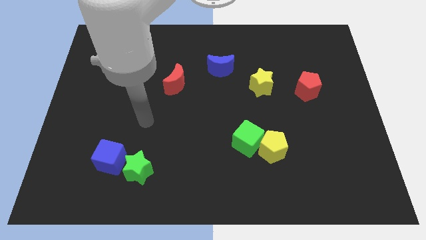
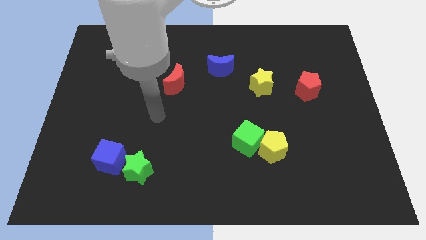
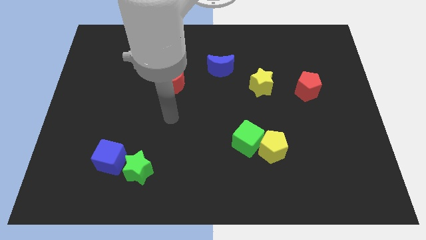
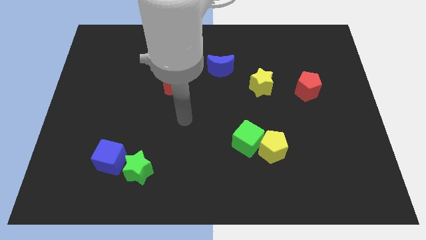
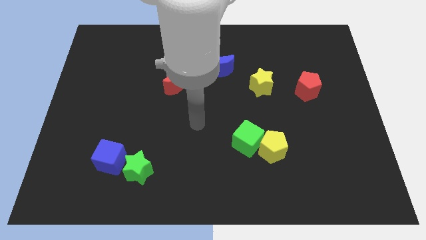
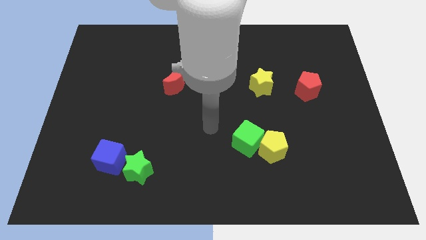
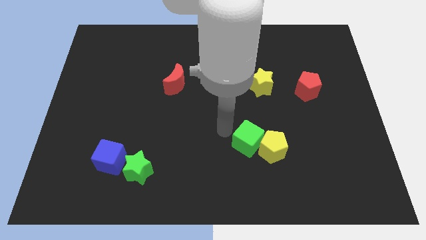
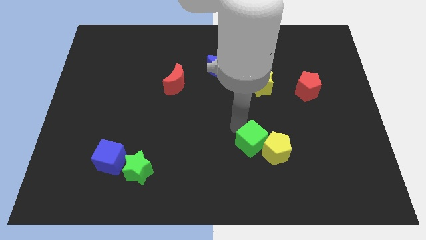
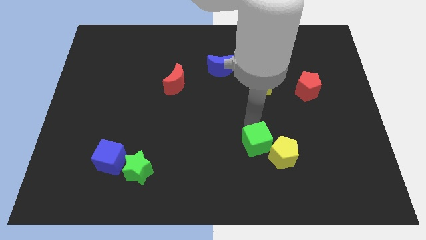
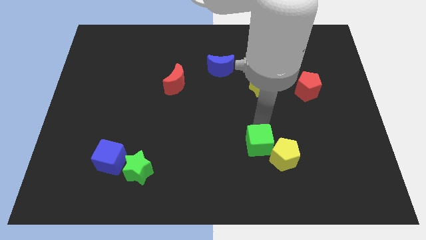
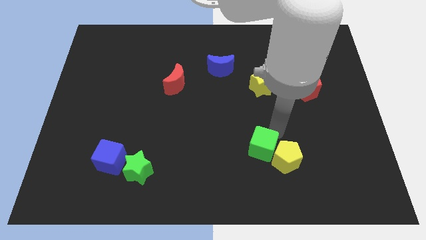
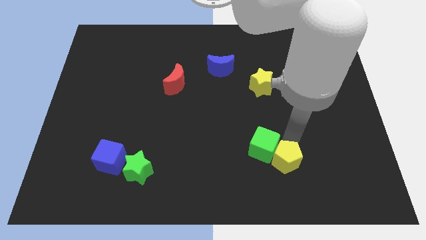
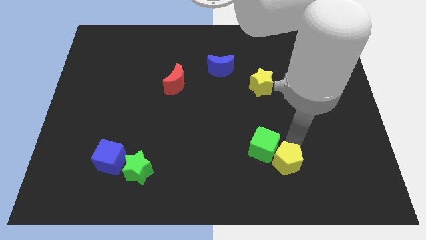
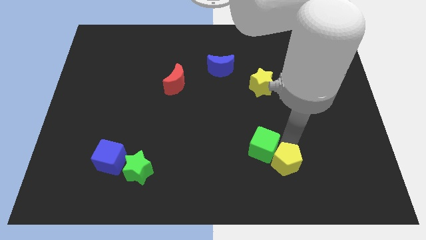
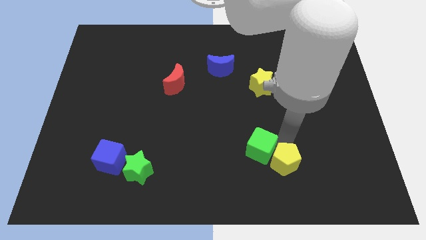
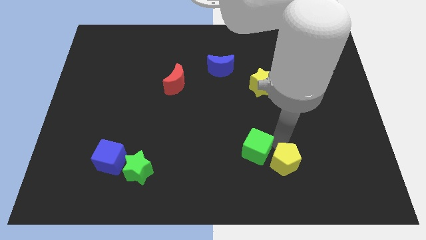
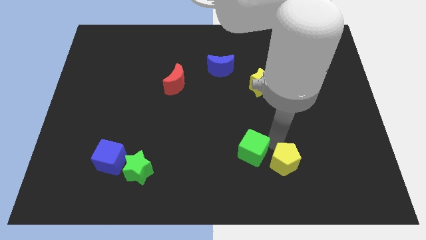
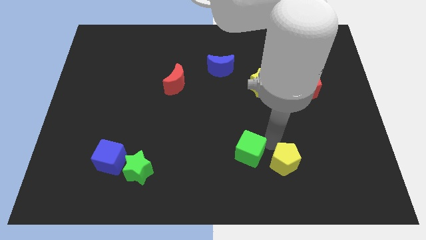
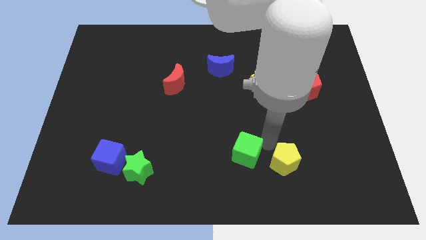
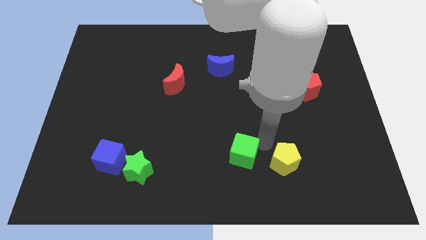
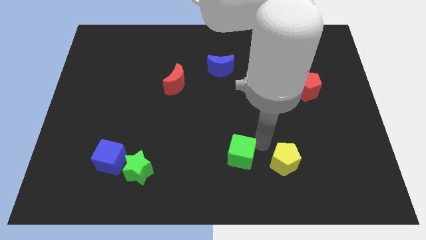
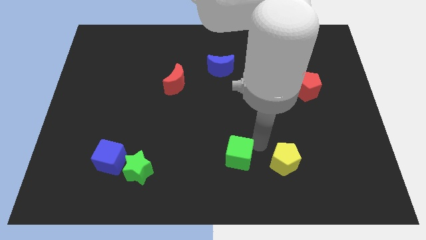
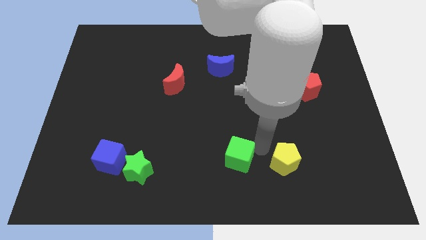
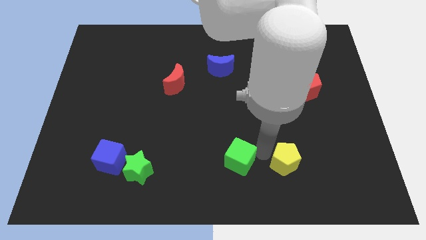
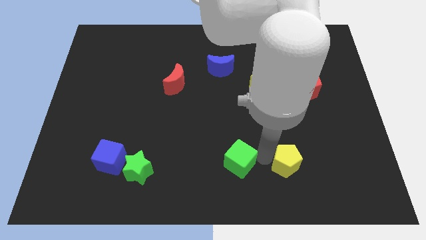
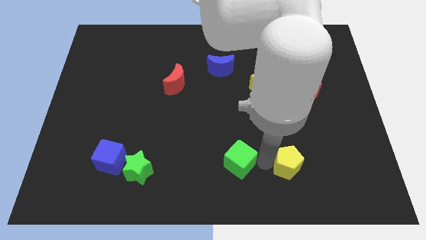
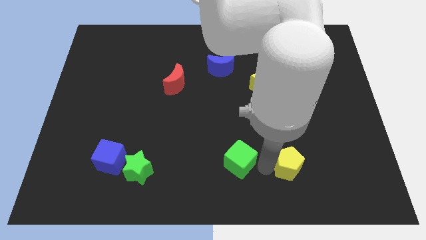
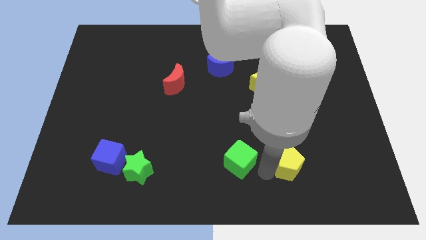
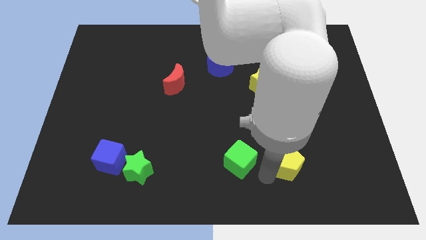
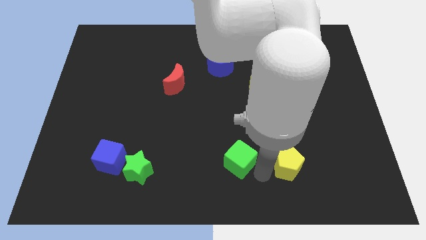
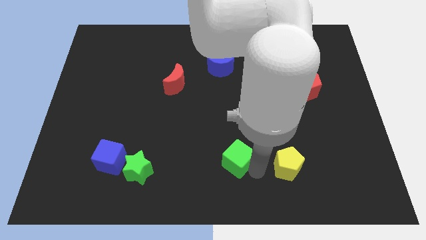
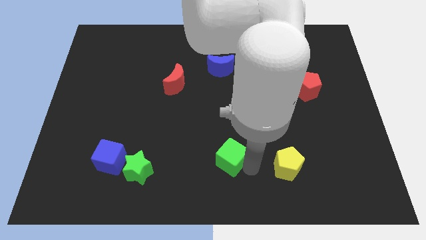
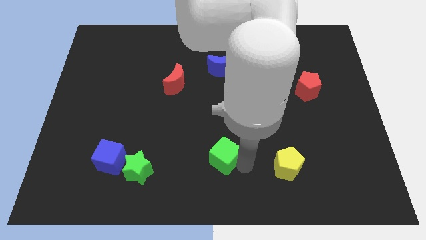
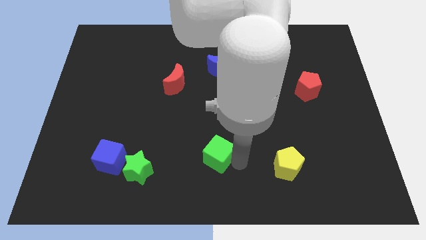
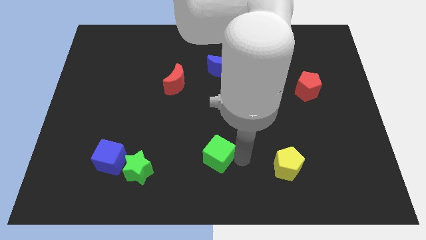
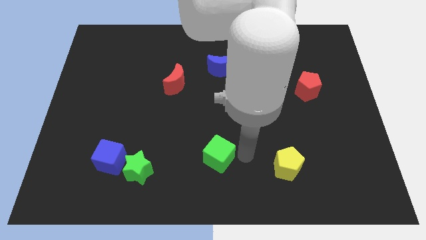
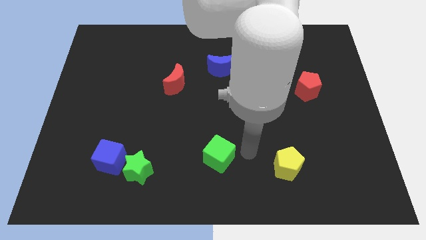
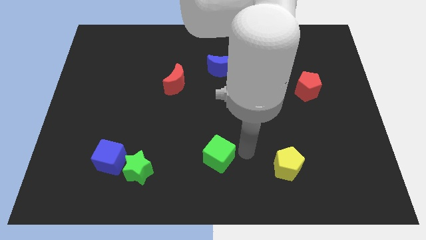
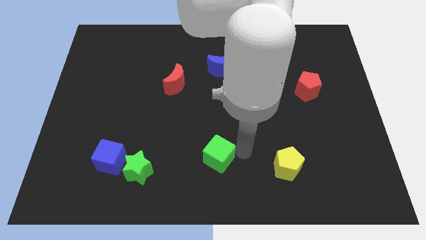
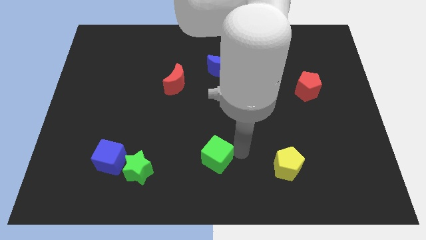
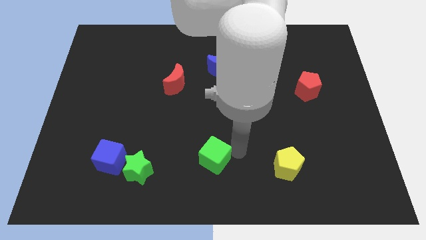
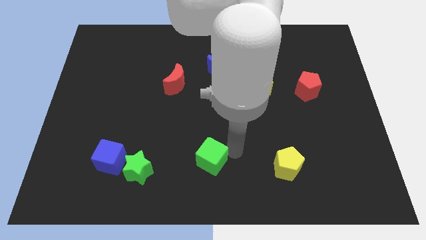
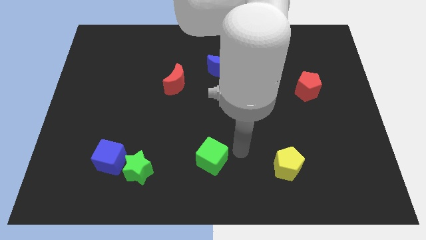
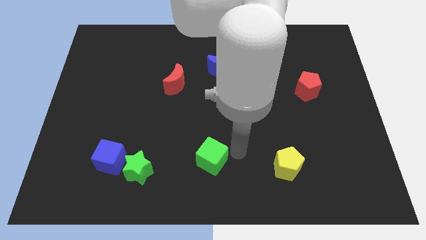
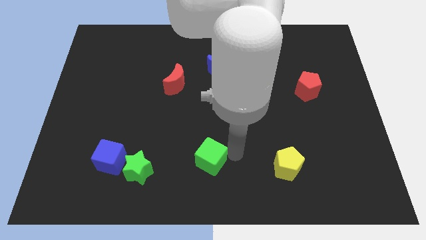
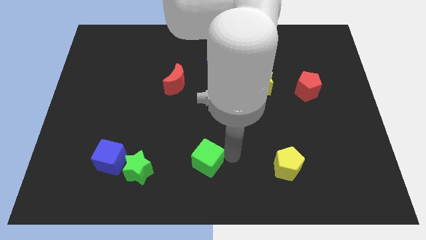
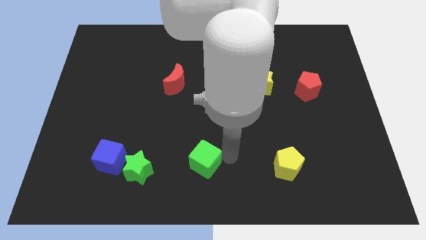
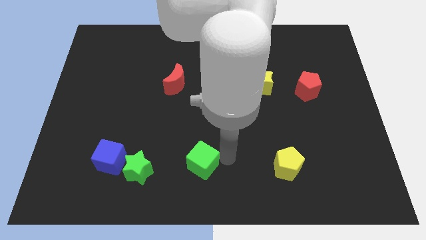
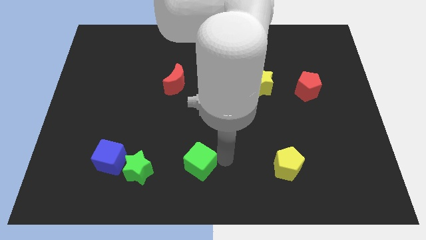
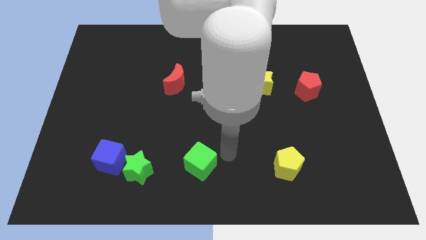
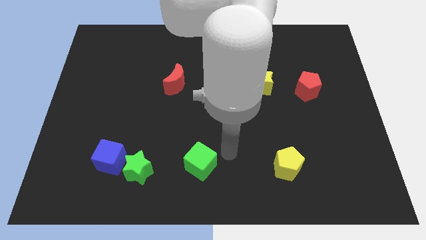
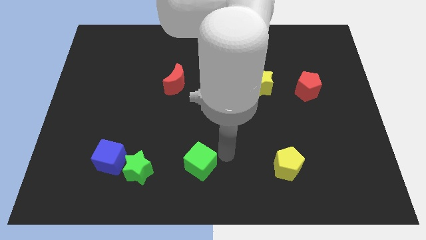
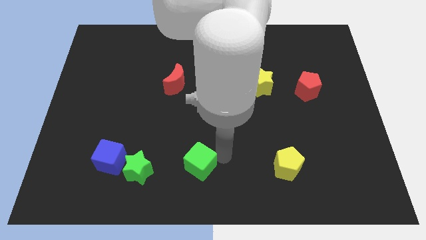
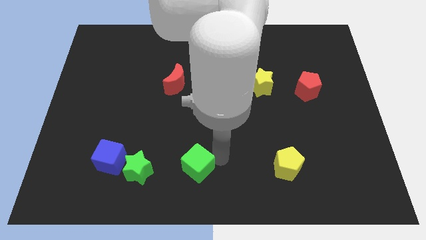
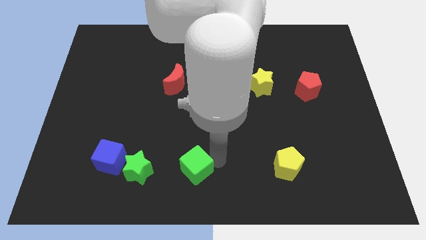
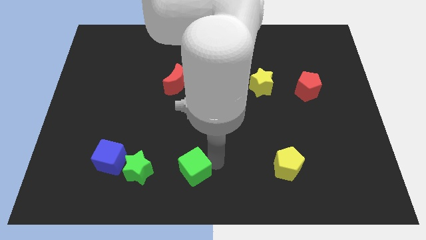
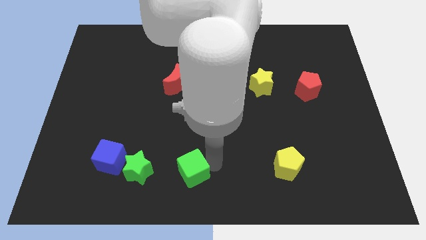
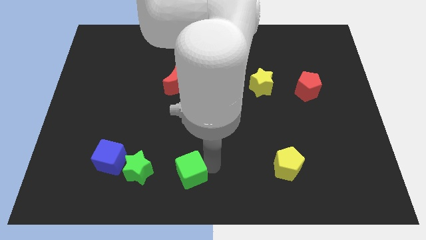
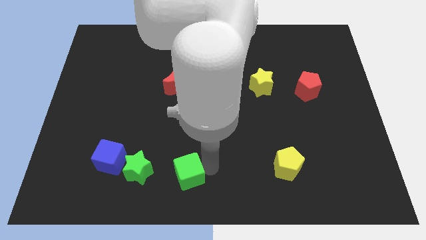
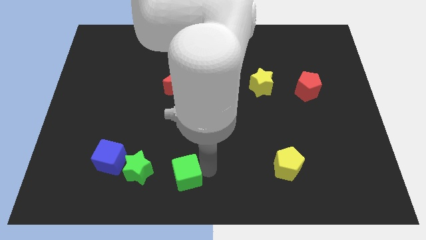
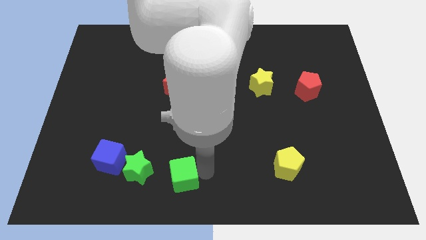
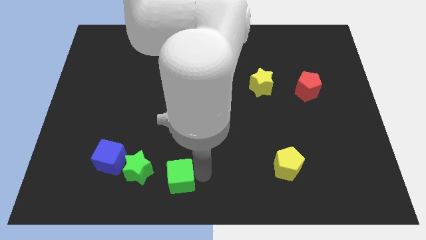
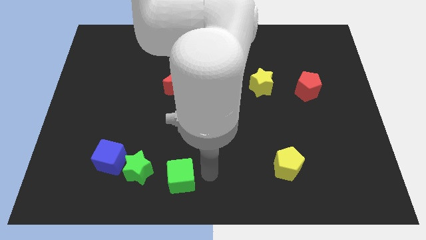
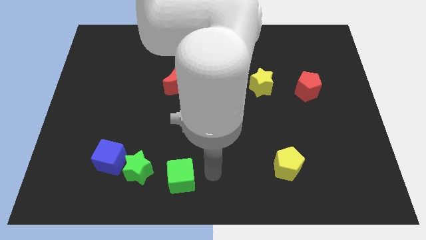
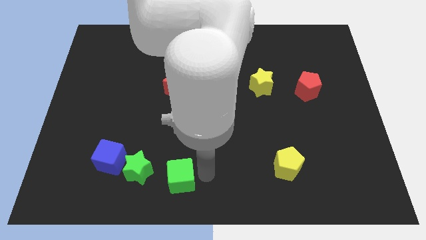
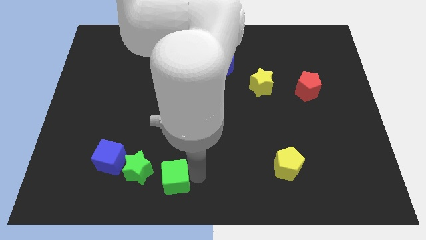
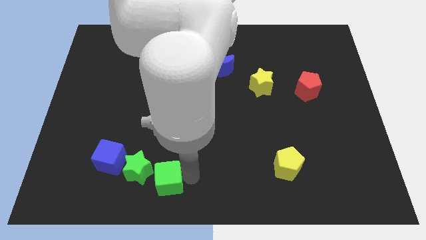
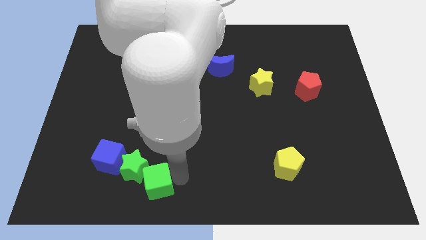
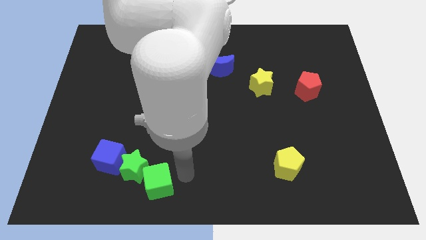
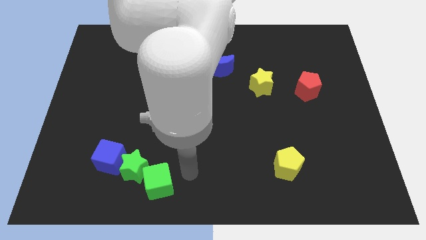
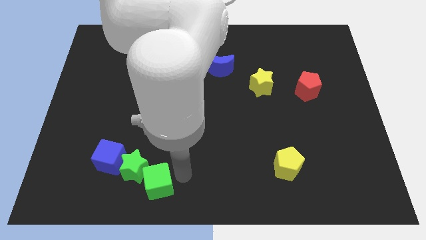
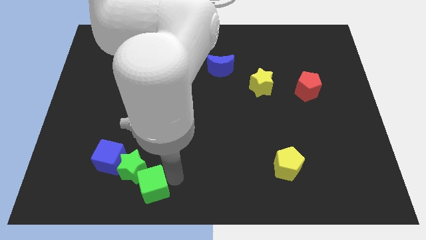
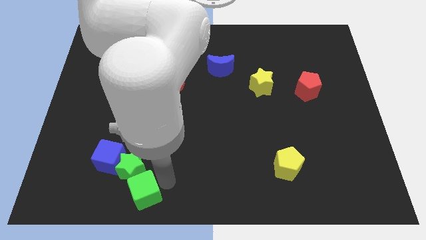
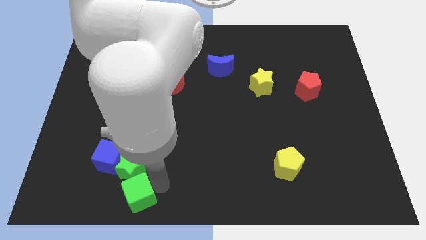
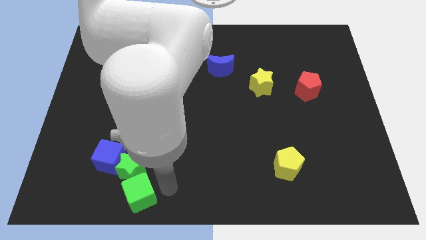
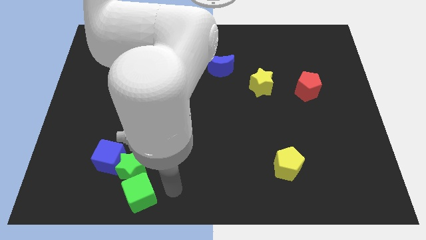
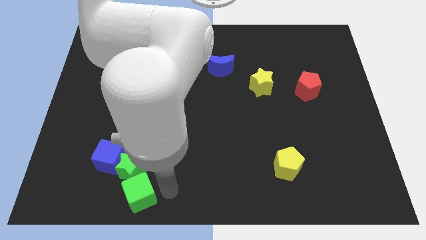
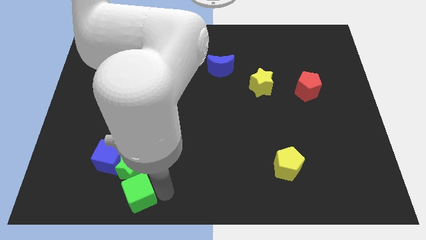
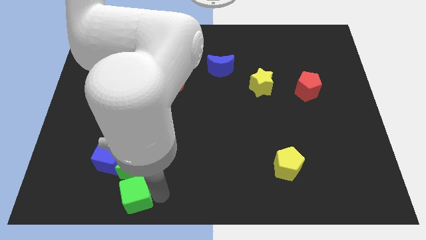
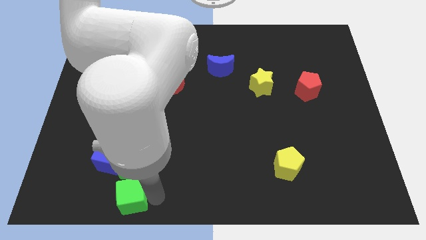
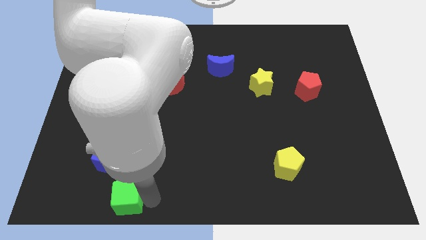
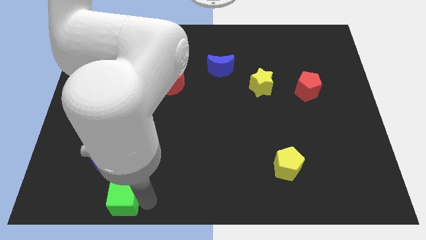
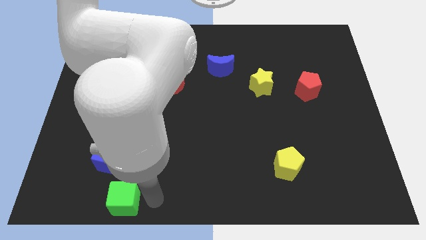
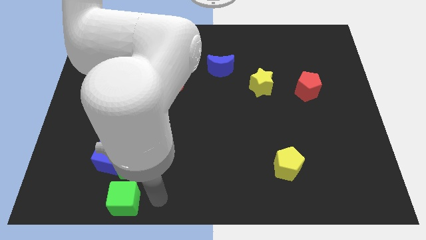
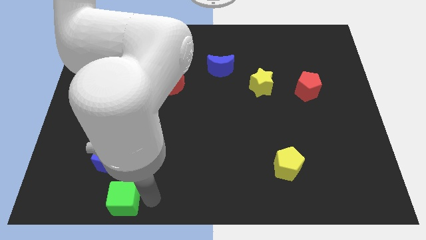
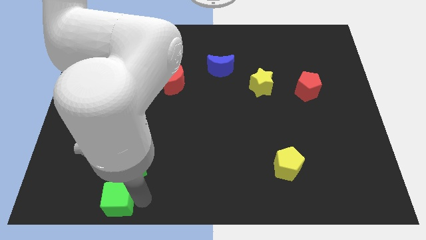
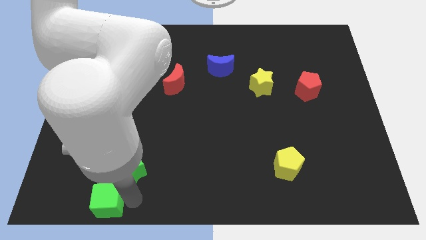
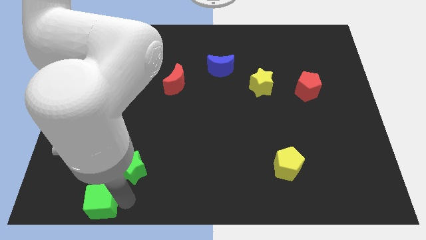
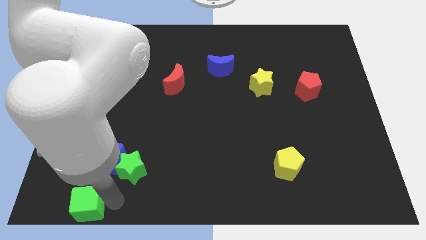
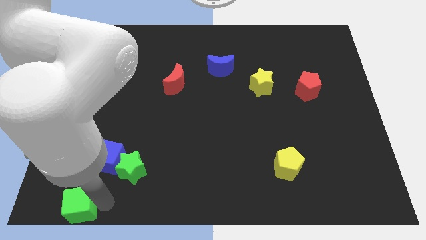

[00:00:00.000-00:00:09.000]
move the green cube to the bottom left corner
